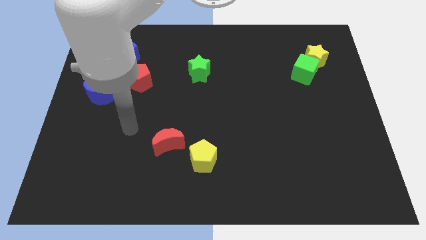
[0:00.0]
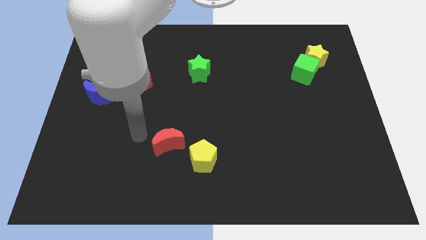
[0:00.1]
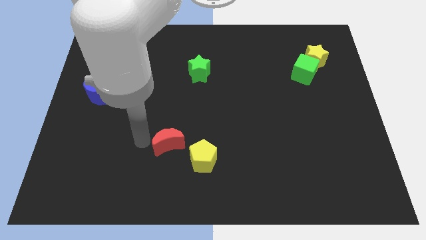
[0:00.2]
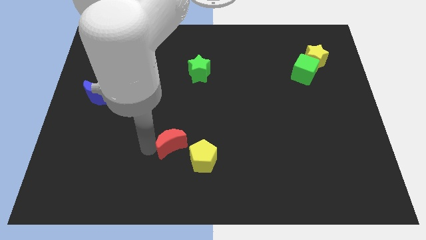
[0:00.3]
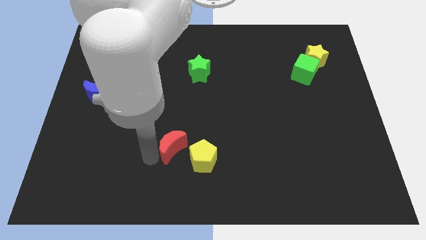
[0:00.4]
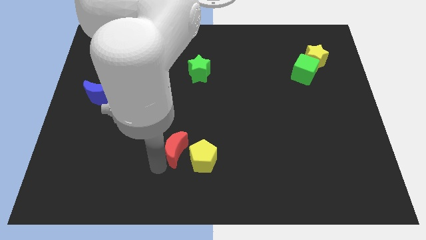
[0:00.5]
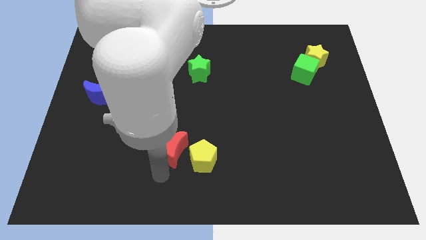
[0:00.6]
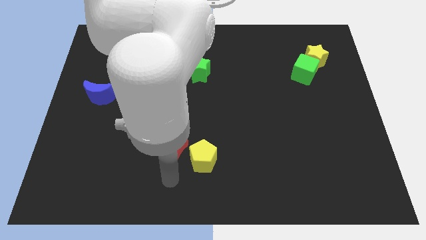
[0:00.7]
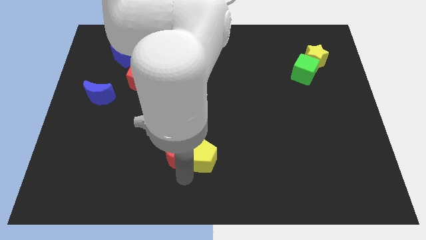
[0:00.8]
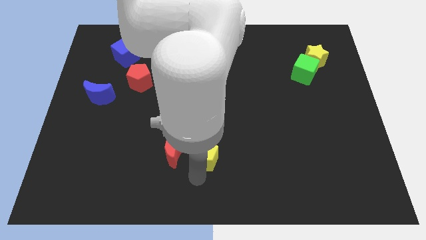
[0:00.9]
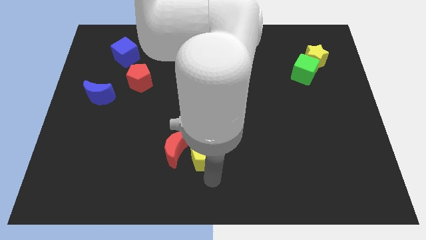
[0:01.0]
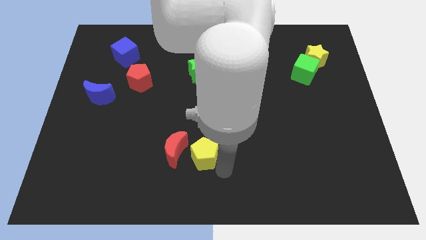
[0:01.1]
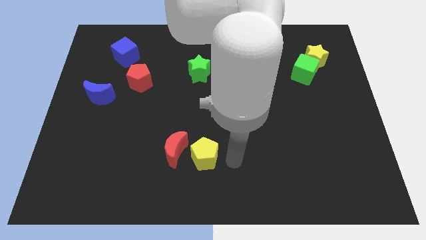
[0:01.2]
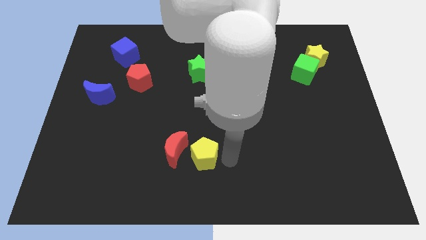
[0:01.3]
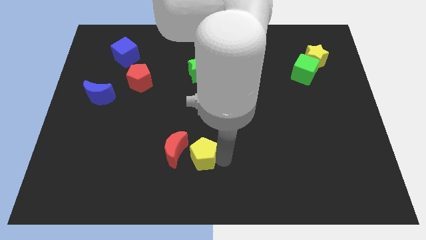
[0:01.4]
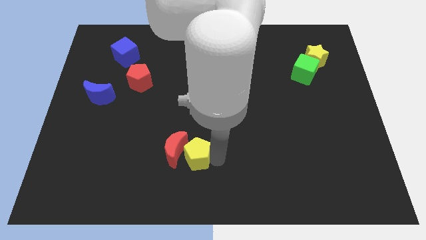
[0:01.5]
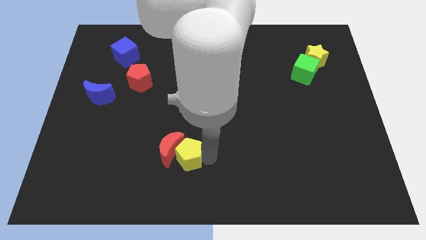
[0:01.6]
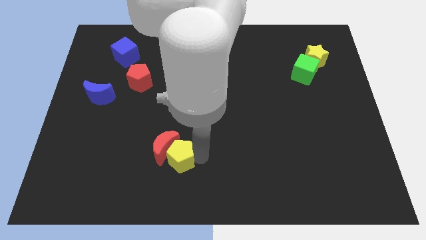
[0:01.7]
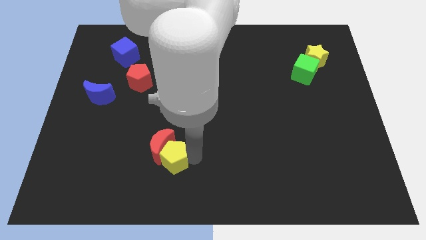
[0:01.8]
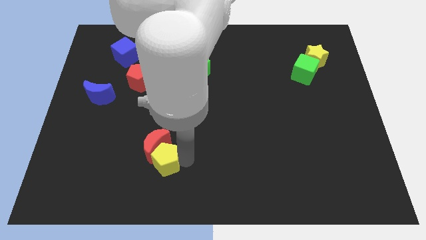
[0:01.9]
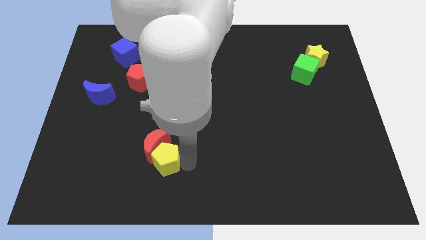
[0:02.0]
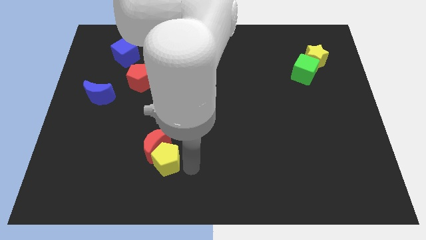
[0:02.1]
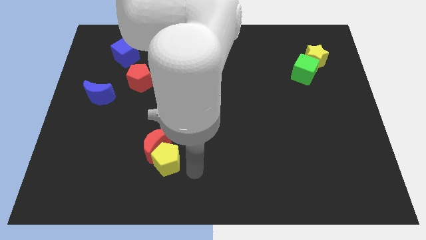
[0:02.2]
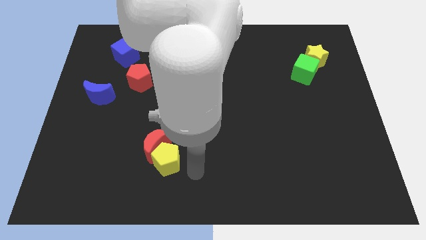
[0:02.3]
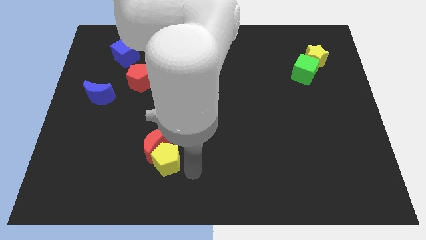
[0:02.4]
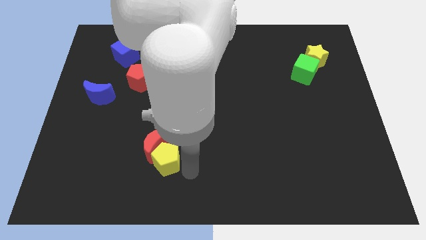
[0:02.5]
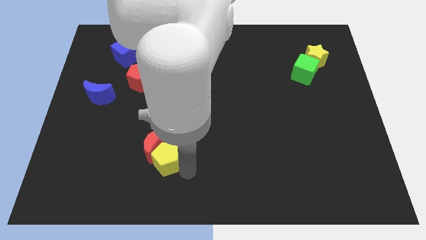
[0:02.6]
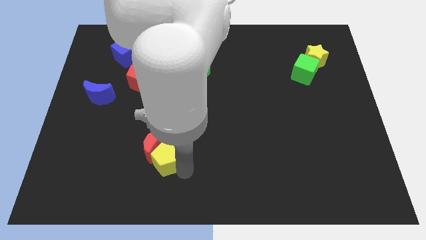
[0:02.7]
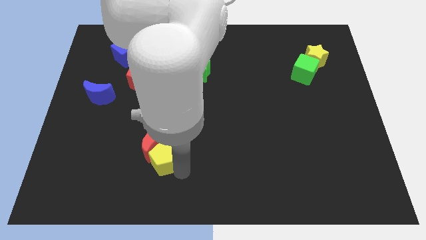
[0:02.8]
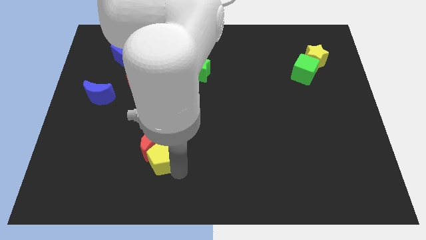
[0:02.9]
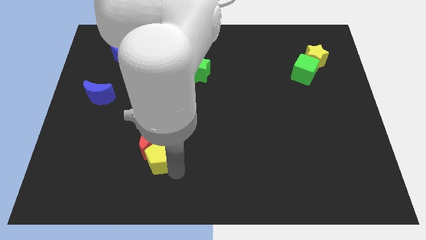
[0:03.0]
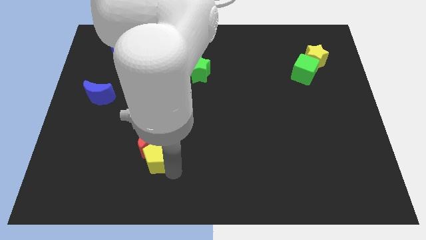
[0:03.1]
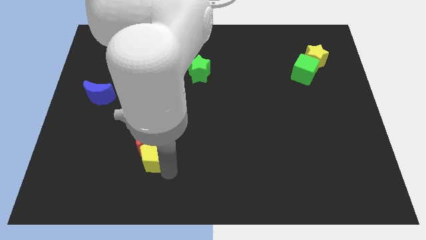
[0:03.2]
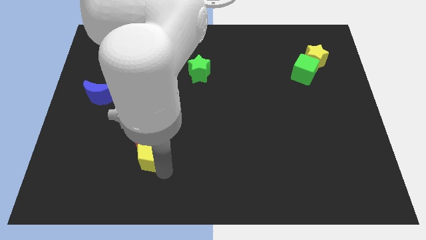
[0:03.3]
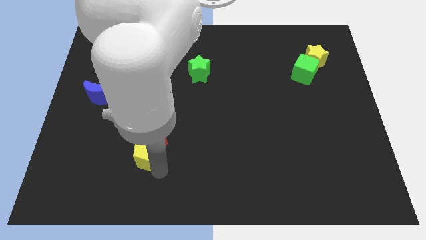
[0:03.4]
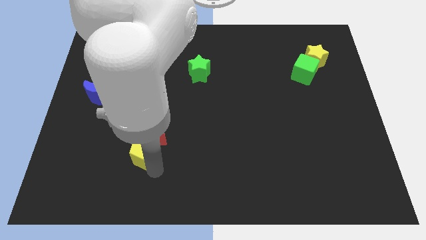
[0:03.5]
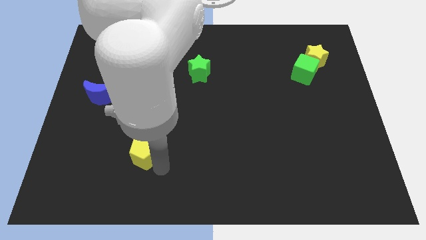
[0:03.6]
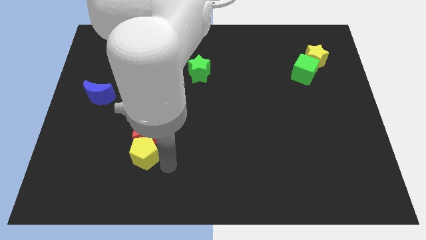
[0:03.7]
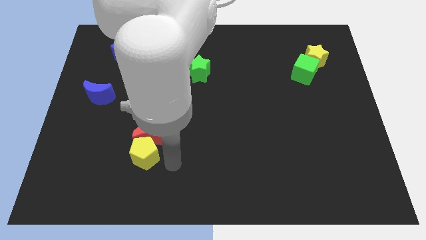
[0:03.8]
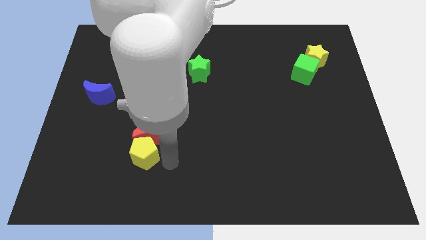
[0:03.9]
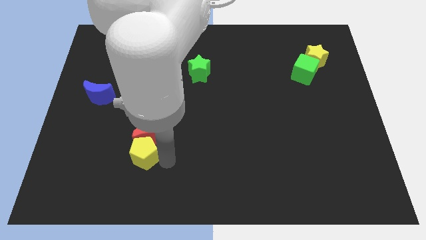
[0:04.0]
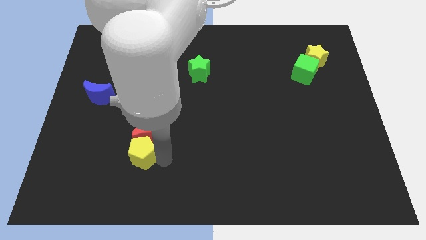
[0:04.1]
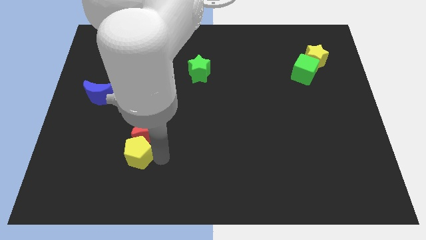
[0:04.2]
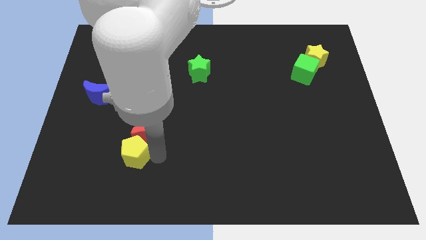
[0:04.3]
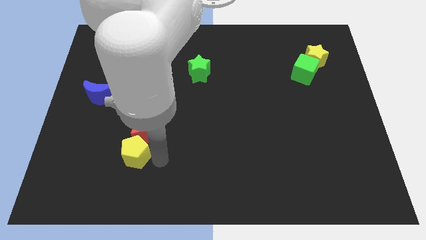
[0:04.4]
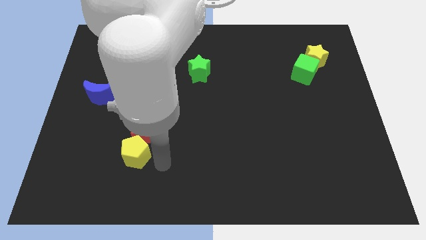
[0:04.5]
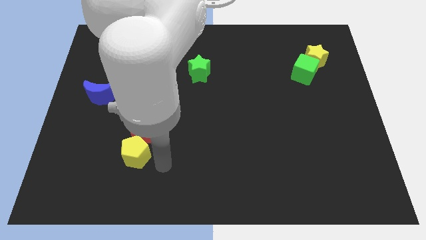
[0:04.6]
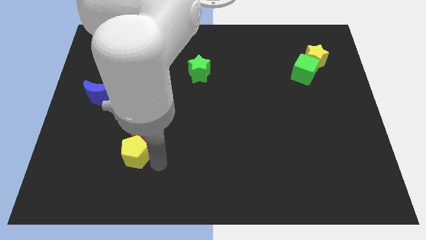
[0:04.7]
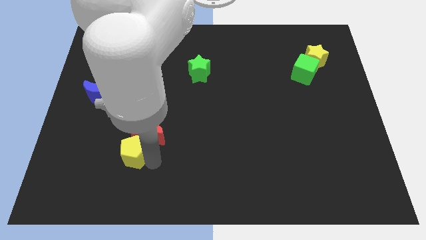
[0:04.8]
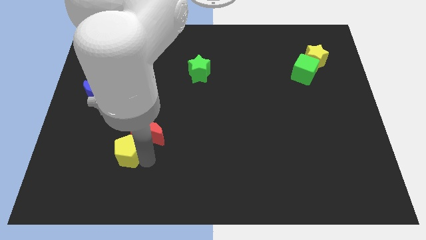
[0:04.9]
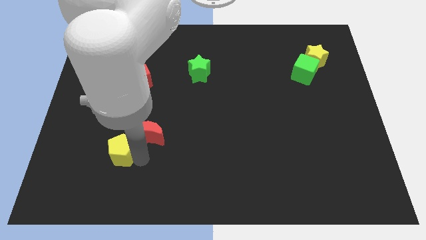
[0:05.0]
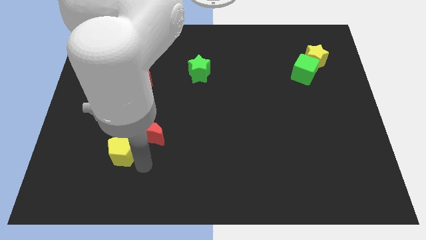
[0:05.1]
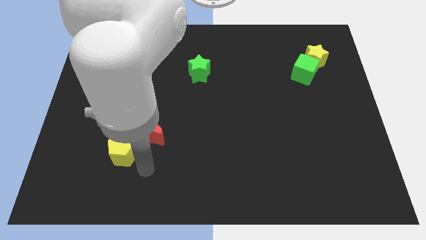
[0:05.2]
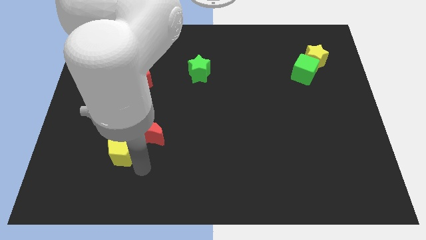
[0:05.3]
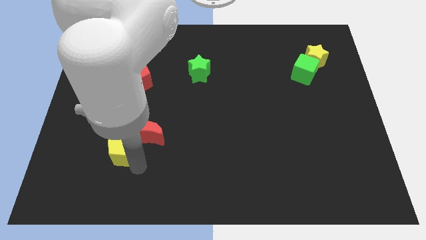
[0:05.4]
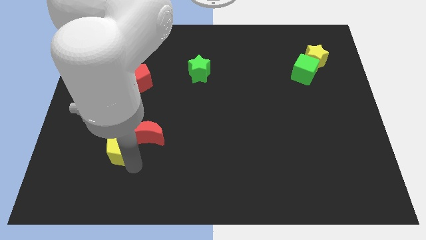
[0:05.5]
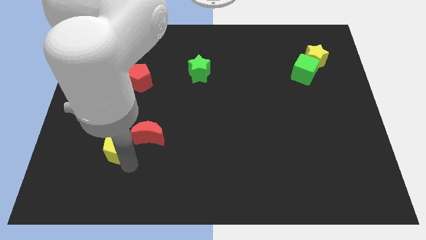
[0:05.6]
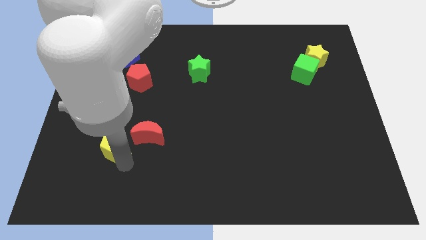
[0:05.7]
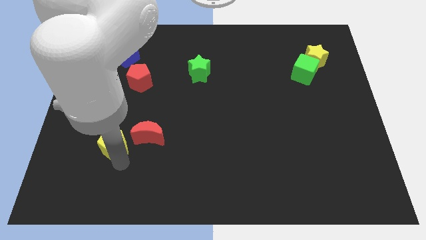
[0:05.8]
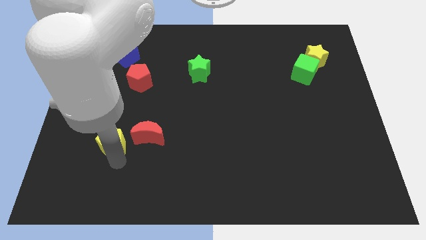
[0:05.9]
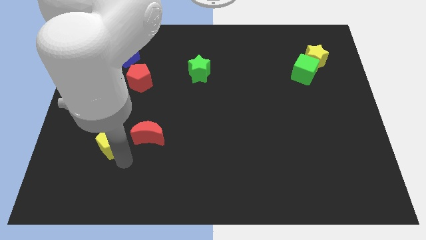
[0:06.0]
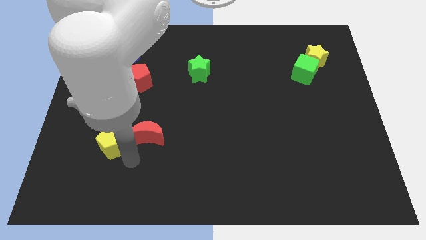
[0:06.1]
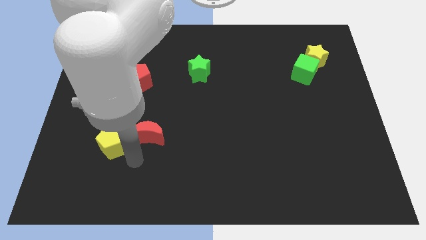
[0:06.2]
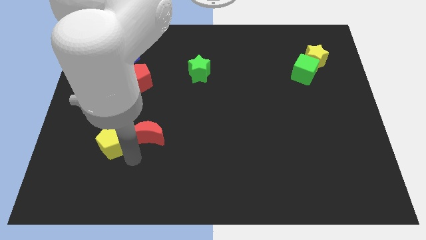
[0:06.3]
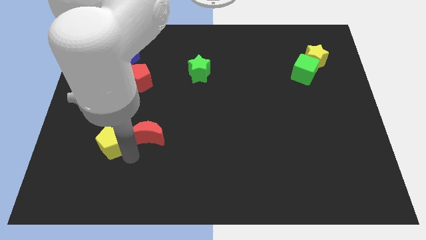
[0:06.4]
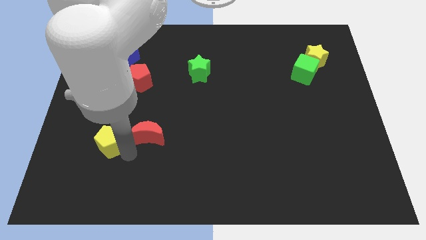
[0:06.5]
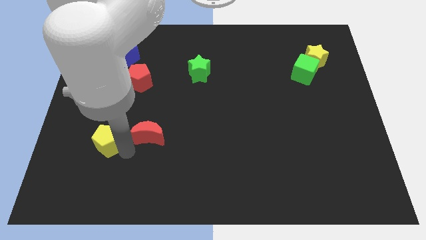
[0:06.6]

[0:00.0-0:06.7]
put the yellow pentagon below the blue moon

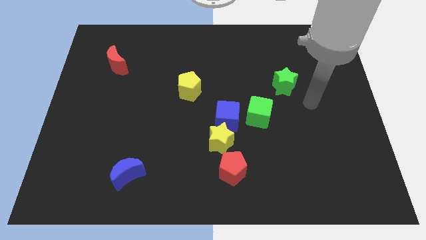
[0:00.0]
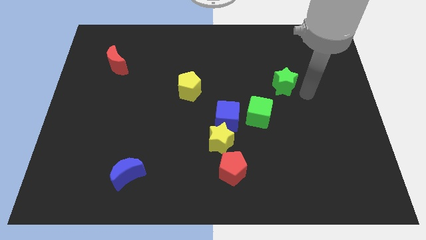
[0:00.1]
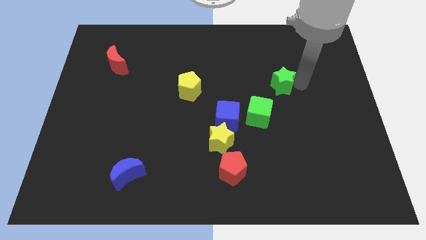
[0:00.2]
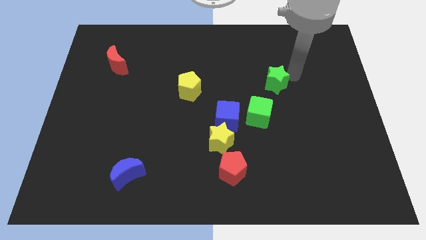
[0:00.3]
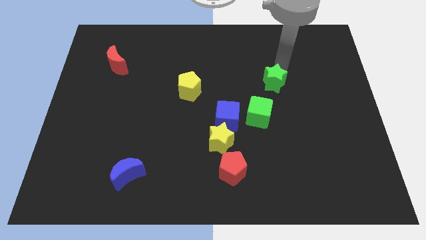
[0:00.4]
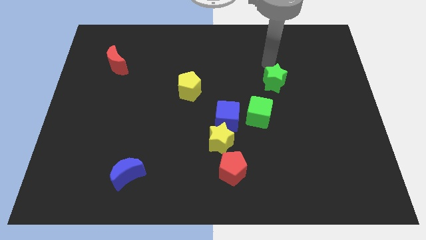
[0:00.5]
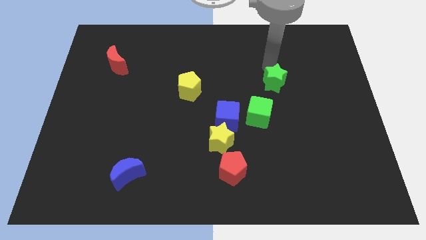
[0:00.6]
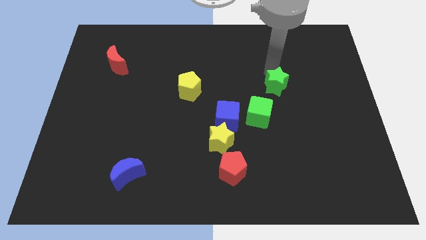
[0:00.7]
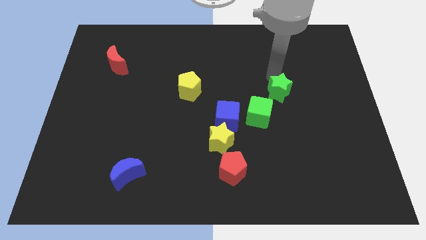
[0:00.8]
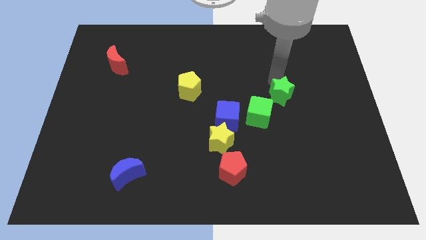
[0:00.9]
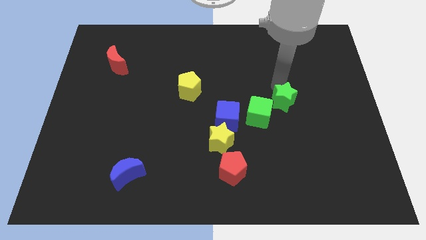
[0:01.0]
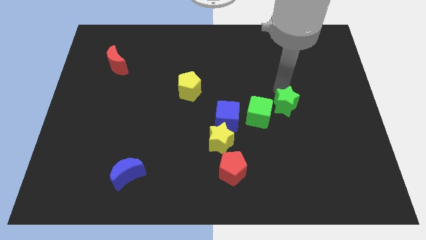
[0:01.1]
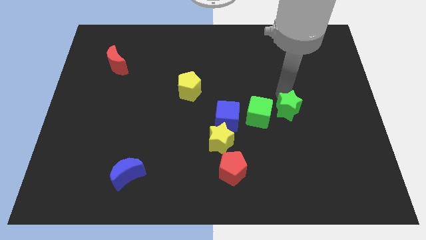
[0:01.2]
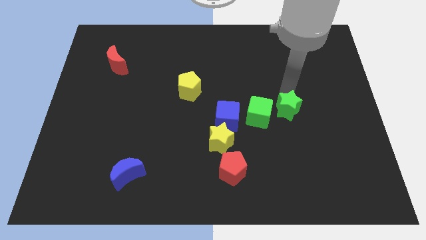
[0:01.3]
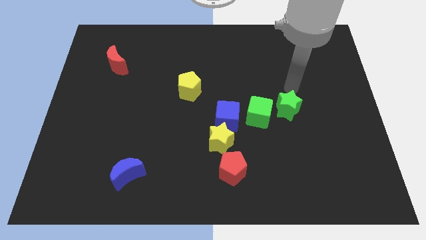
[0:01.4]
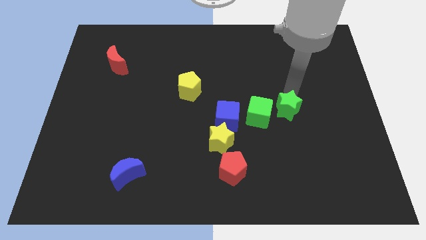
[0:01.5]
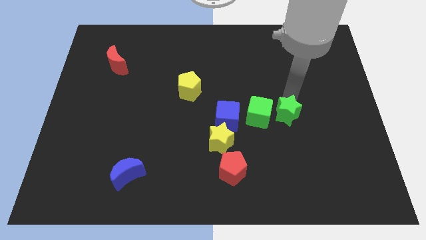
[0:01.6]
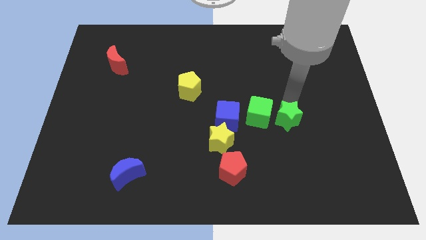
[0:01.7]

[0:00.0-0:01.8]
move the green star diagonally down and to the right of the green cube
